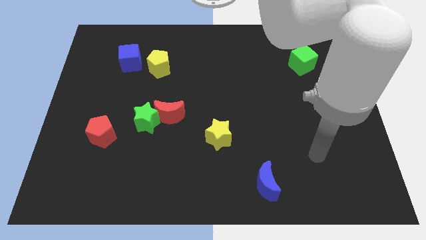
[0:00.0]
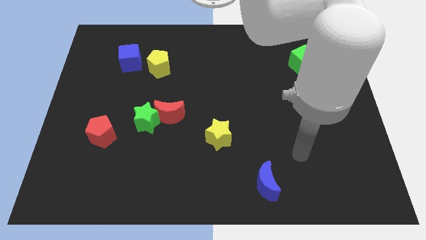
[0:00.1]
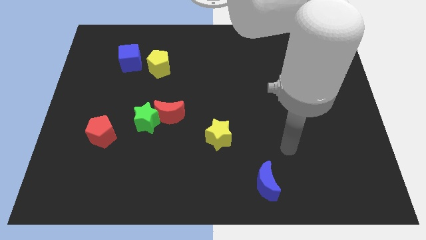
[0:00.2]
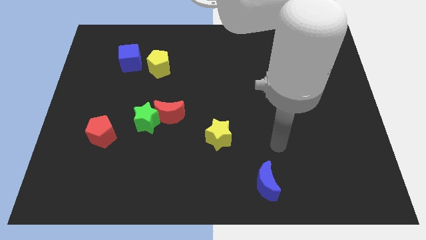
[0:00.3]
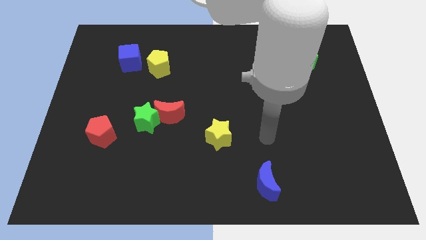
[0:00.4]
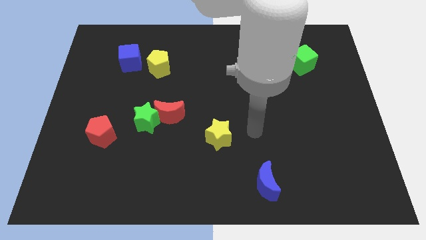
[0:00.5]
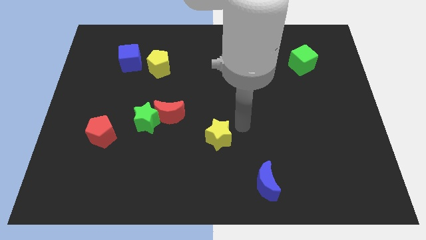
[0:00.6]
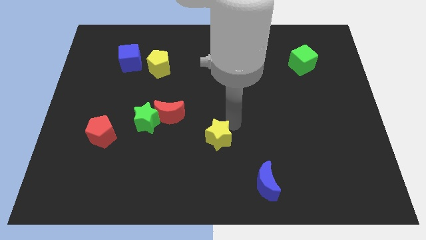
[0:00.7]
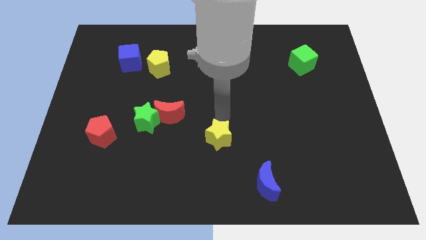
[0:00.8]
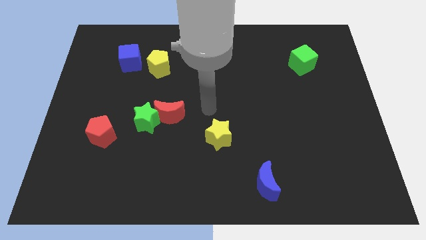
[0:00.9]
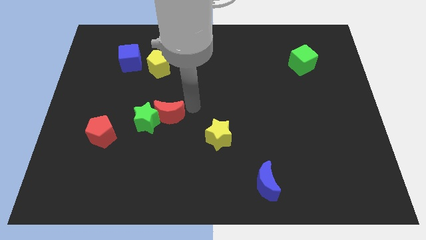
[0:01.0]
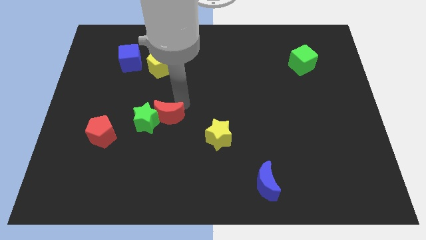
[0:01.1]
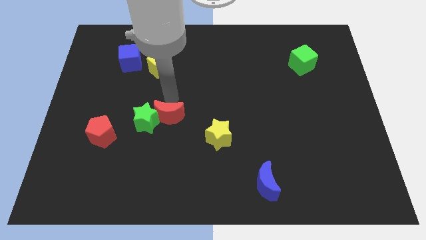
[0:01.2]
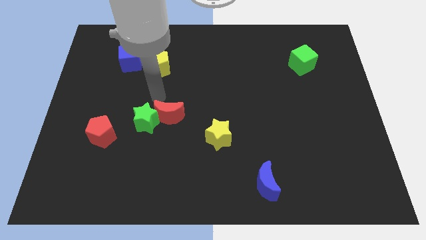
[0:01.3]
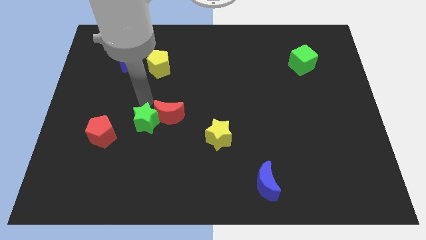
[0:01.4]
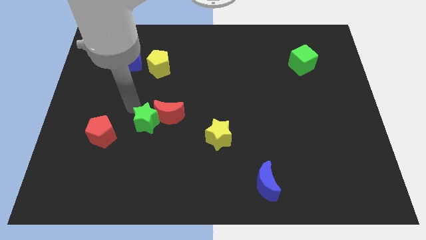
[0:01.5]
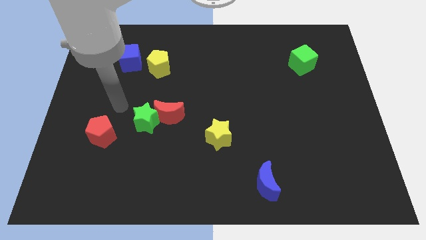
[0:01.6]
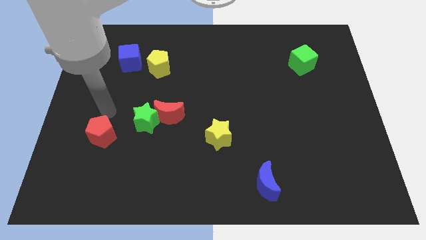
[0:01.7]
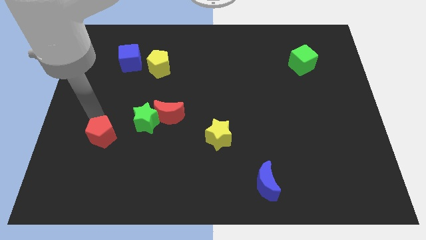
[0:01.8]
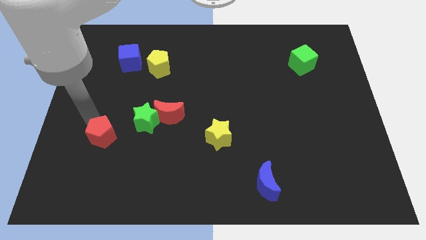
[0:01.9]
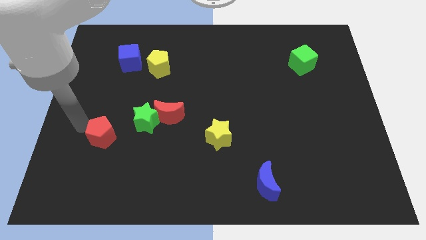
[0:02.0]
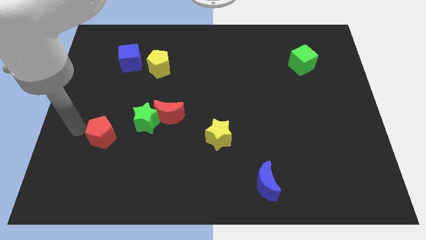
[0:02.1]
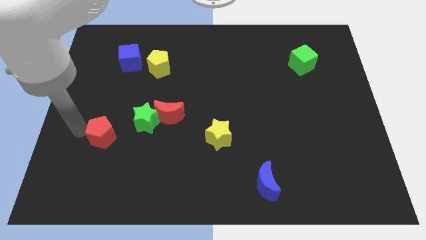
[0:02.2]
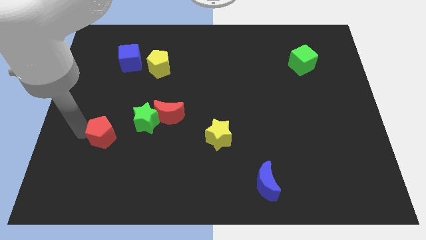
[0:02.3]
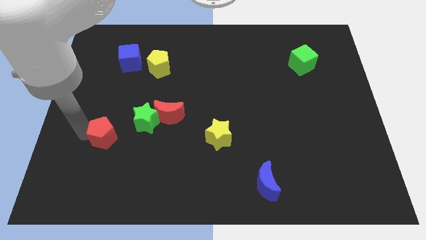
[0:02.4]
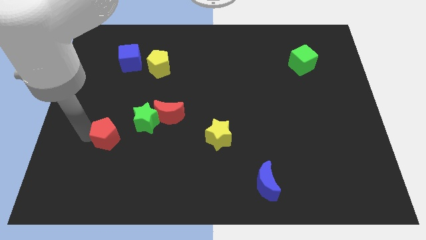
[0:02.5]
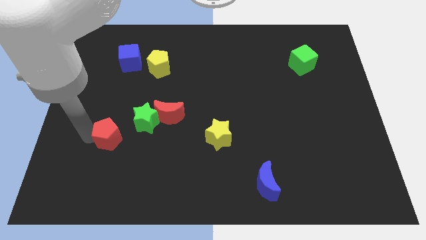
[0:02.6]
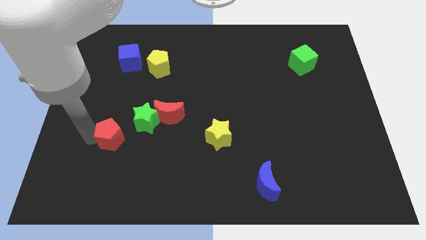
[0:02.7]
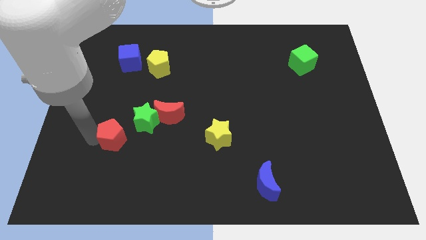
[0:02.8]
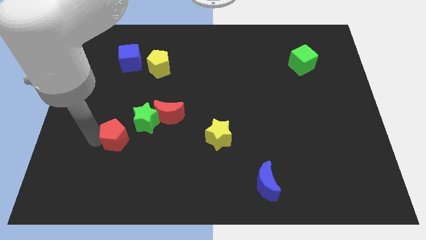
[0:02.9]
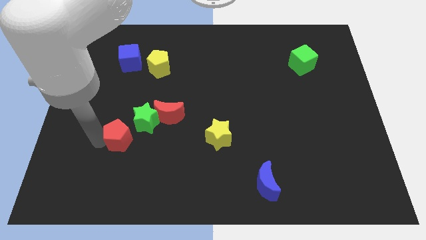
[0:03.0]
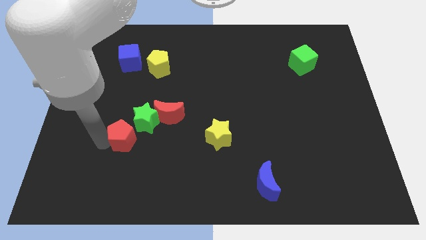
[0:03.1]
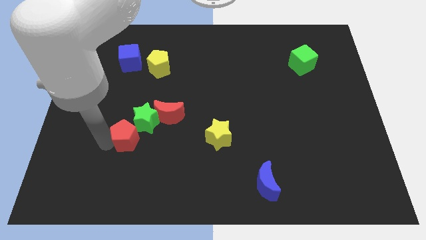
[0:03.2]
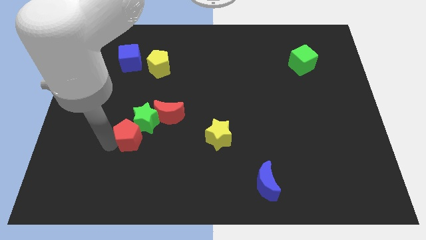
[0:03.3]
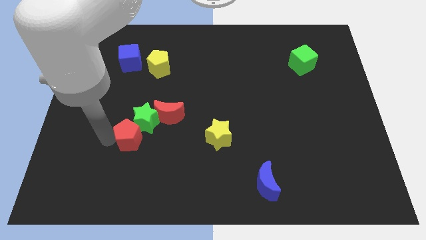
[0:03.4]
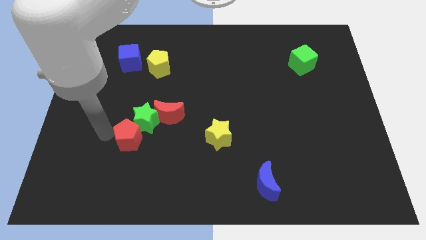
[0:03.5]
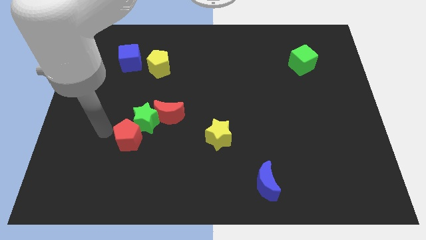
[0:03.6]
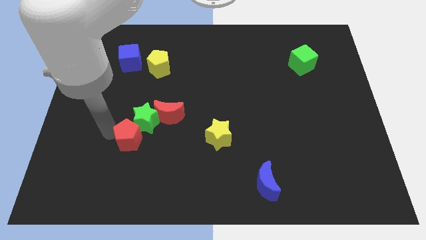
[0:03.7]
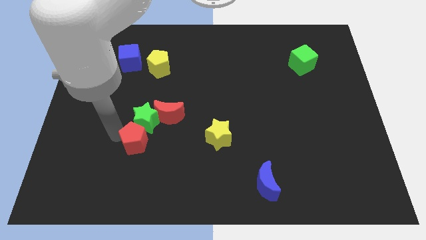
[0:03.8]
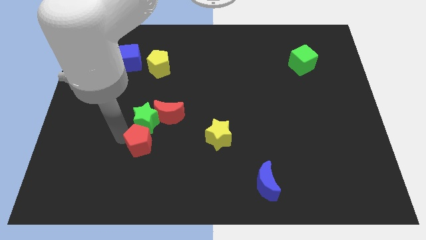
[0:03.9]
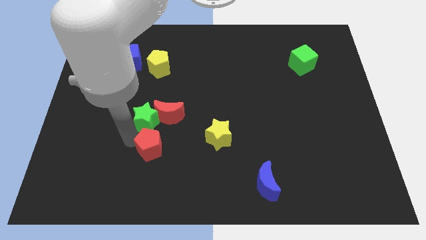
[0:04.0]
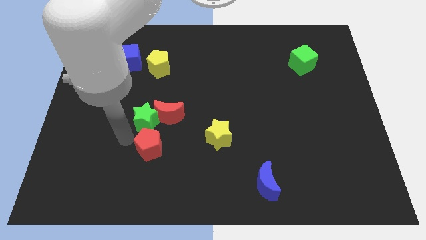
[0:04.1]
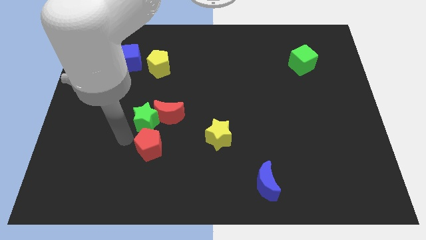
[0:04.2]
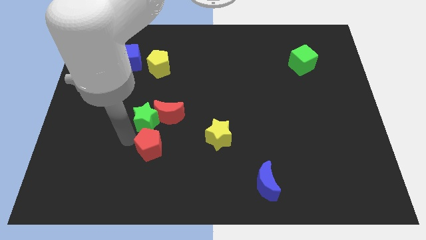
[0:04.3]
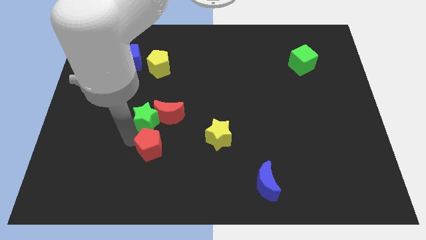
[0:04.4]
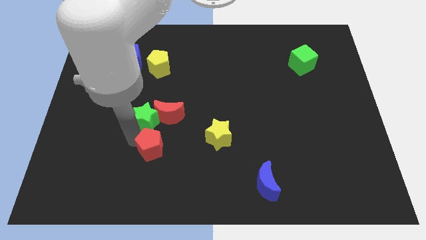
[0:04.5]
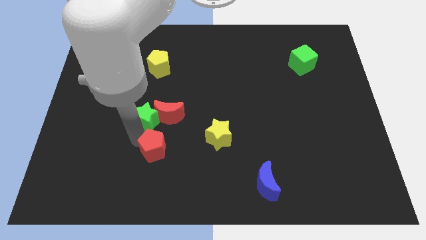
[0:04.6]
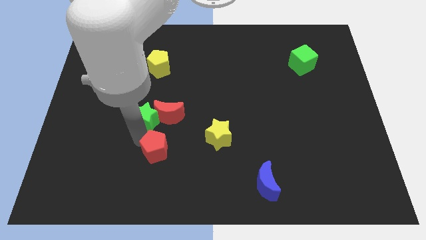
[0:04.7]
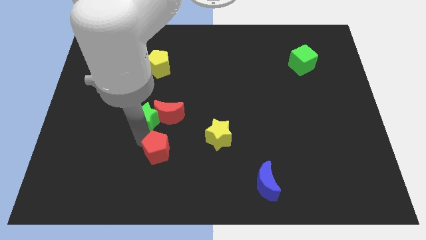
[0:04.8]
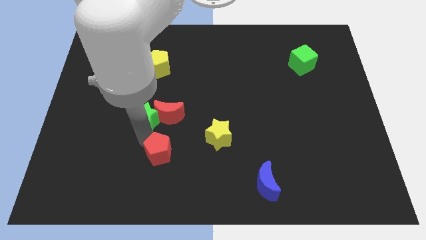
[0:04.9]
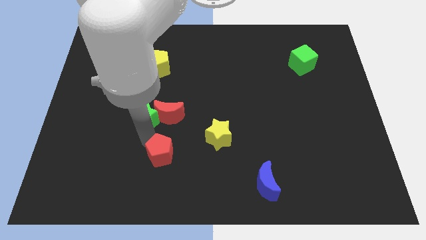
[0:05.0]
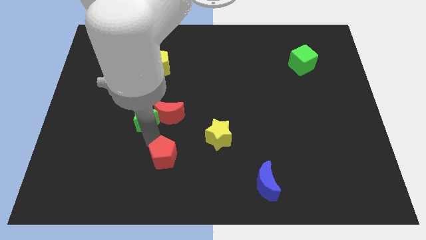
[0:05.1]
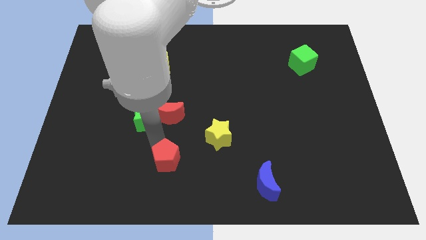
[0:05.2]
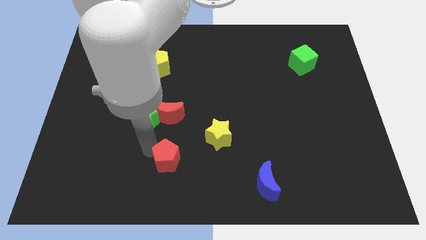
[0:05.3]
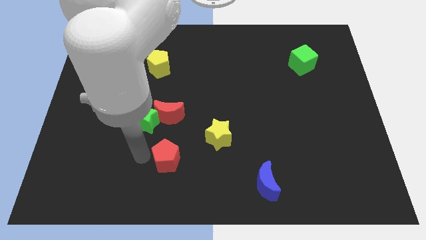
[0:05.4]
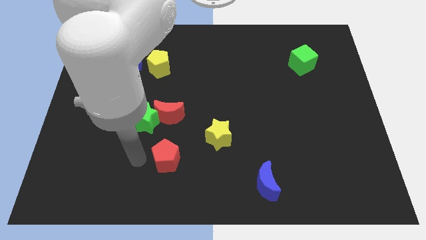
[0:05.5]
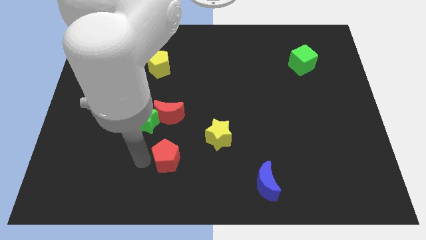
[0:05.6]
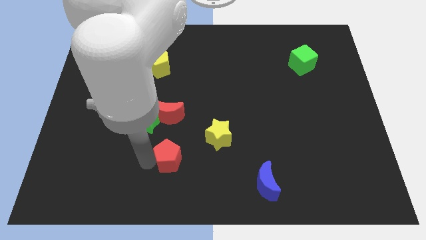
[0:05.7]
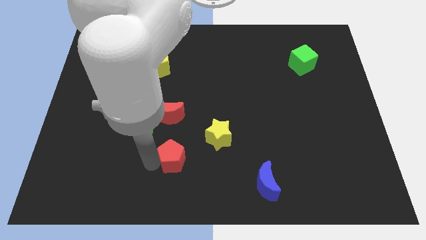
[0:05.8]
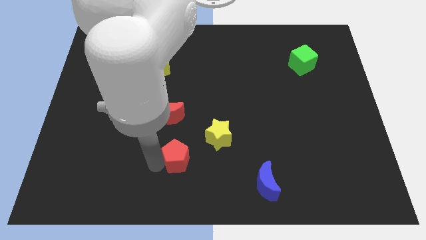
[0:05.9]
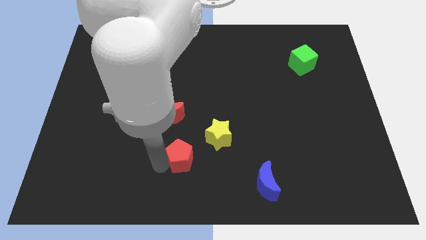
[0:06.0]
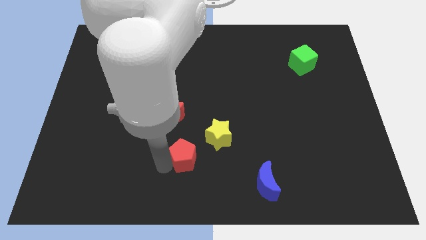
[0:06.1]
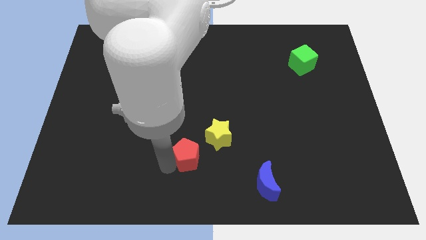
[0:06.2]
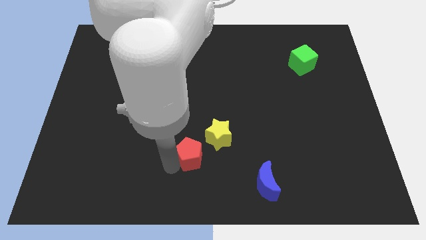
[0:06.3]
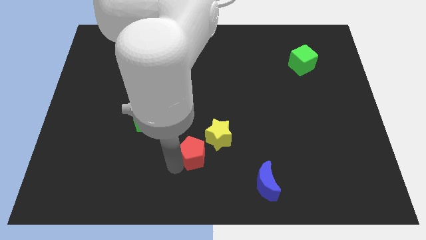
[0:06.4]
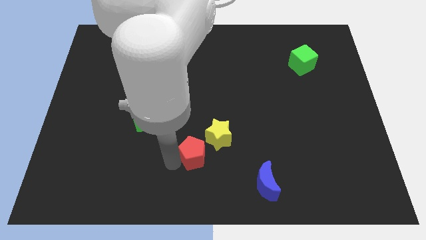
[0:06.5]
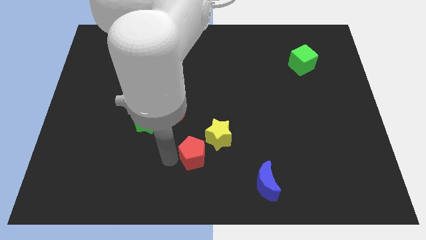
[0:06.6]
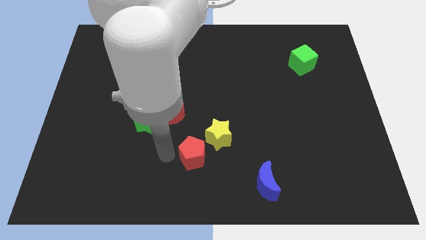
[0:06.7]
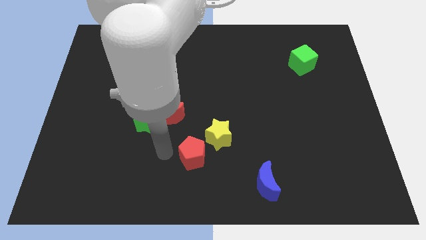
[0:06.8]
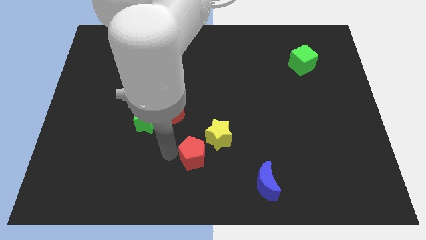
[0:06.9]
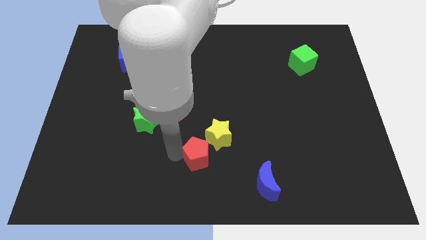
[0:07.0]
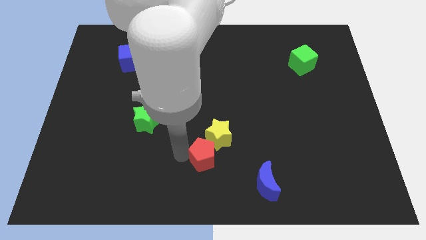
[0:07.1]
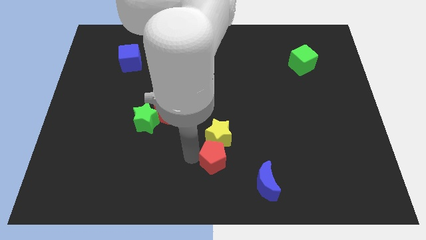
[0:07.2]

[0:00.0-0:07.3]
put the red pentagon to the bottom right side of the yellow star
